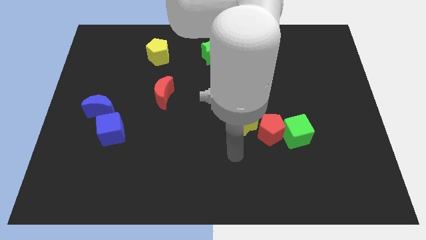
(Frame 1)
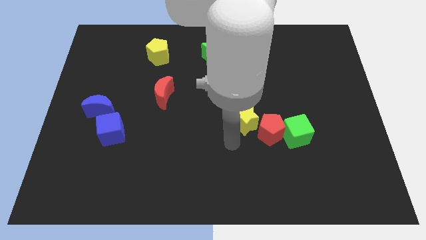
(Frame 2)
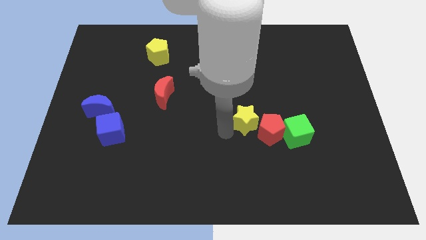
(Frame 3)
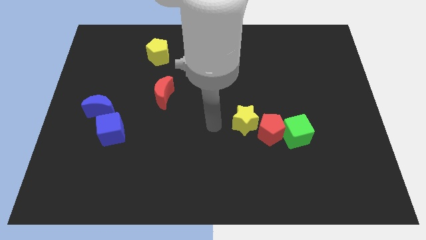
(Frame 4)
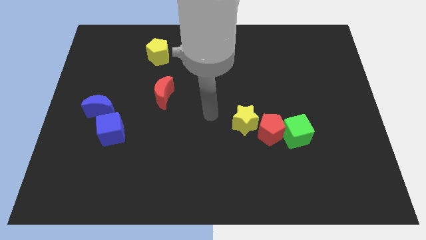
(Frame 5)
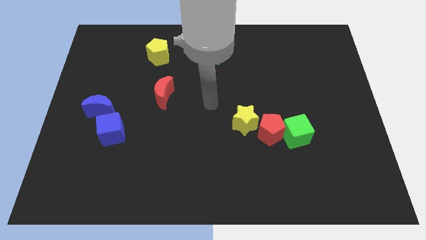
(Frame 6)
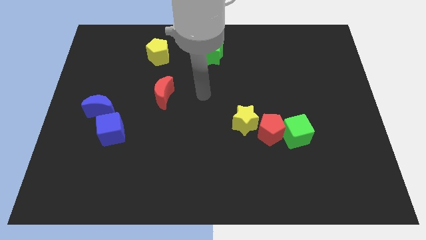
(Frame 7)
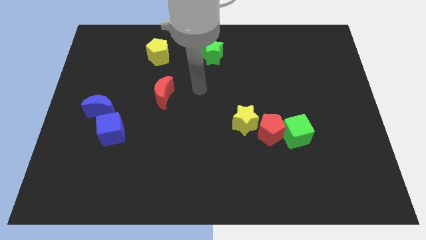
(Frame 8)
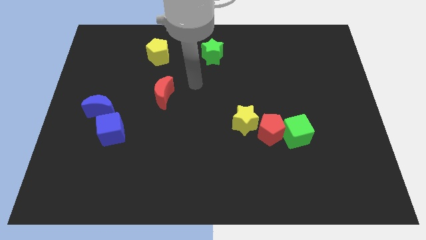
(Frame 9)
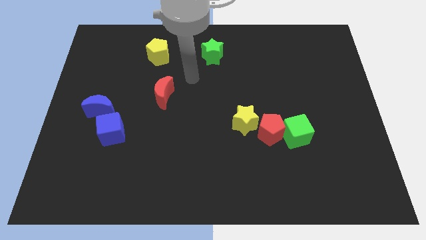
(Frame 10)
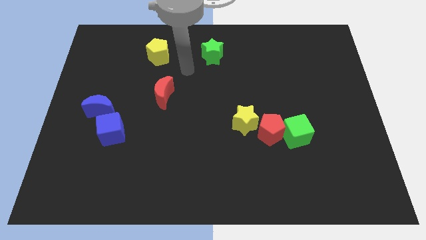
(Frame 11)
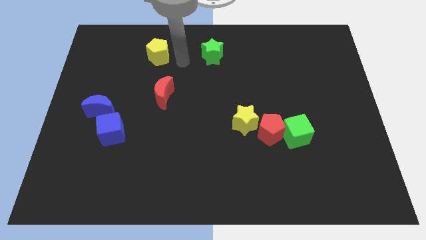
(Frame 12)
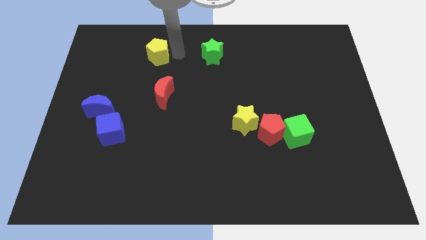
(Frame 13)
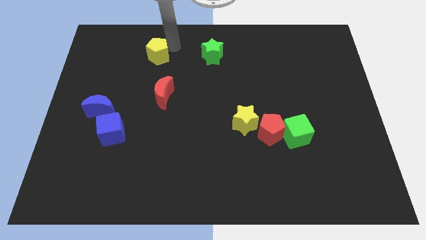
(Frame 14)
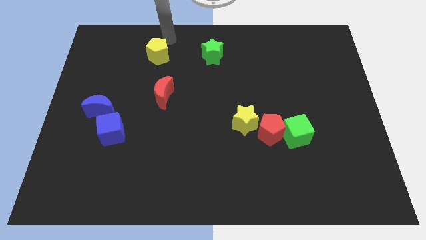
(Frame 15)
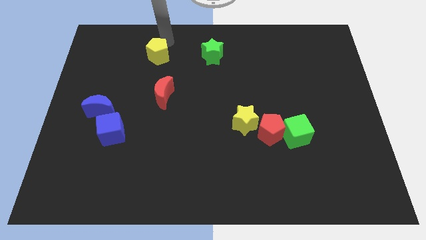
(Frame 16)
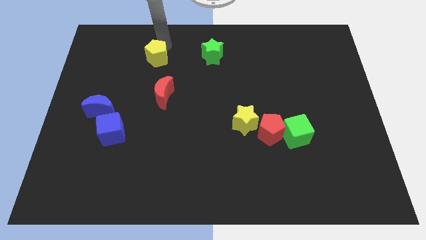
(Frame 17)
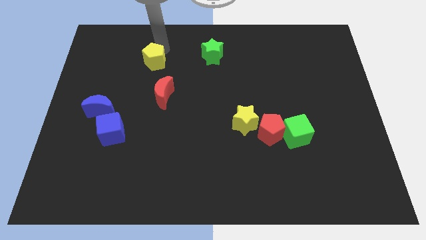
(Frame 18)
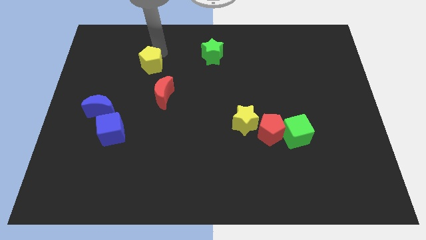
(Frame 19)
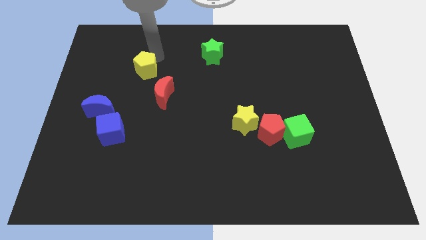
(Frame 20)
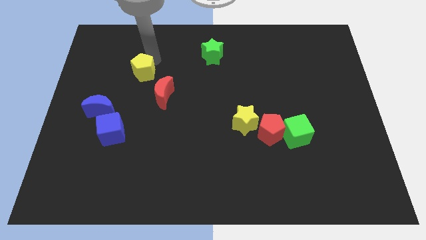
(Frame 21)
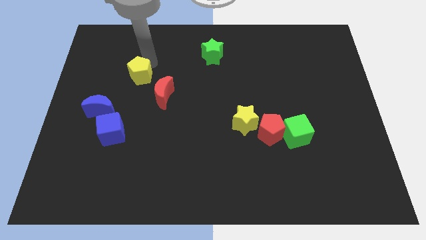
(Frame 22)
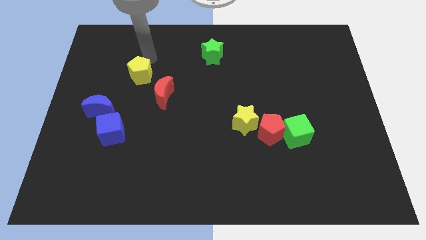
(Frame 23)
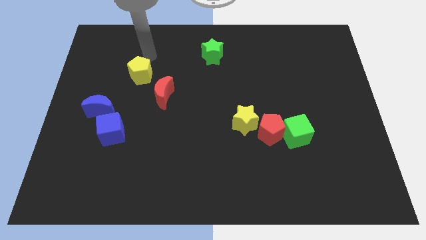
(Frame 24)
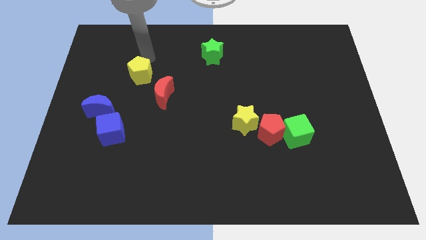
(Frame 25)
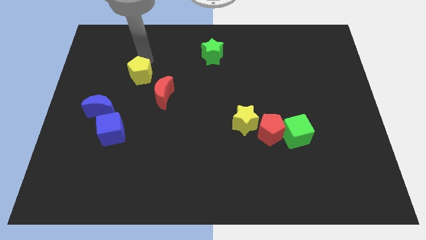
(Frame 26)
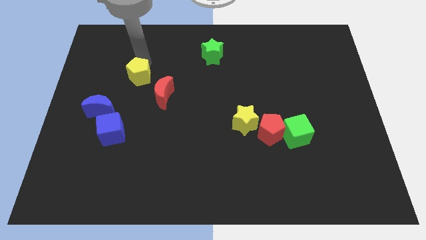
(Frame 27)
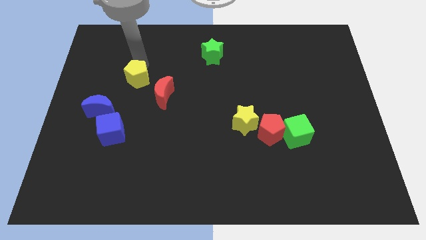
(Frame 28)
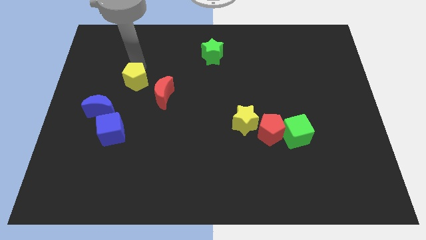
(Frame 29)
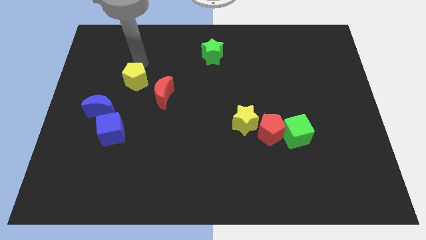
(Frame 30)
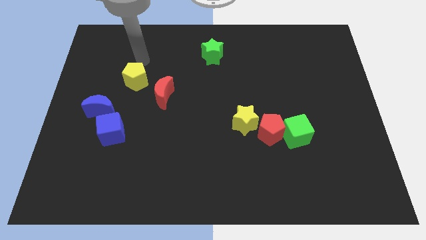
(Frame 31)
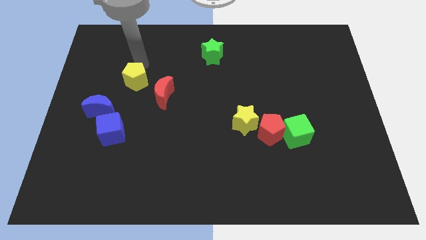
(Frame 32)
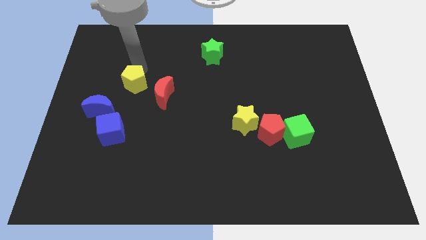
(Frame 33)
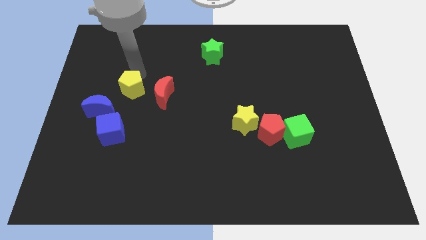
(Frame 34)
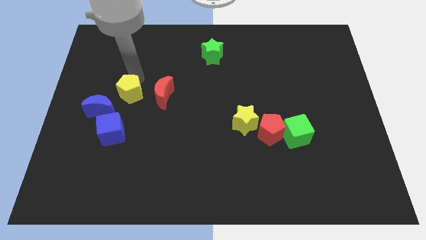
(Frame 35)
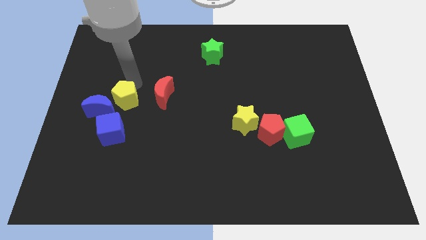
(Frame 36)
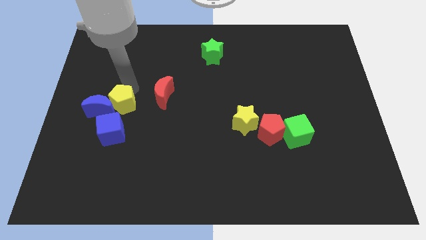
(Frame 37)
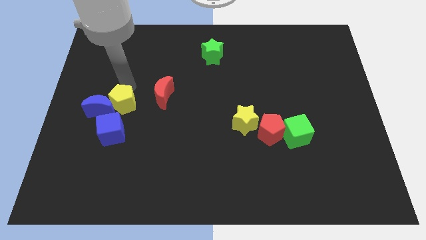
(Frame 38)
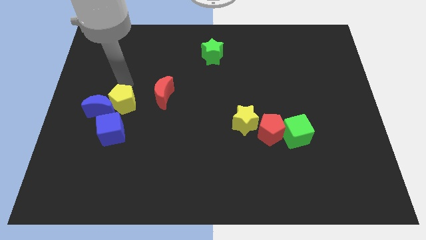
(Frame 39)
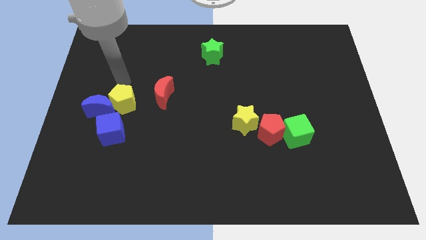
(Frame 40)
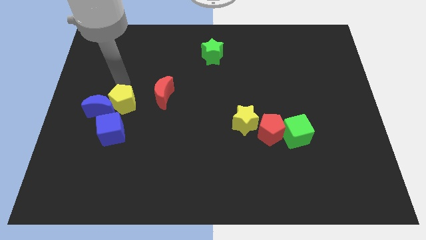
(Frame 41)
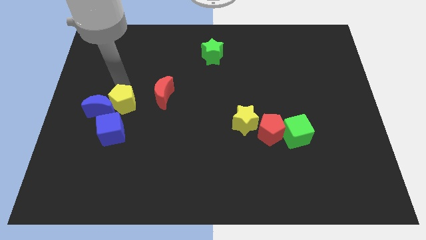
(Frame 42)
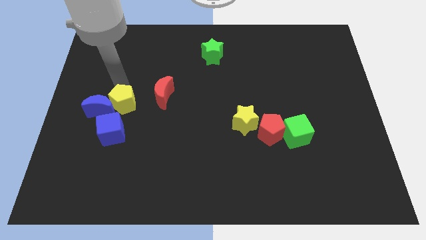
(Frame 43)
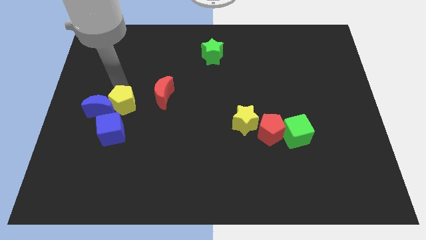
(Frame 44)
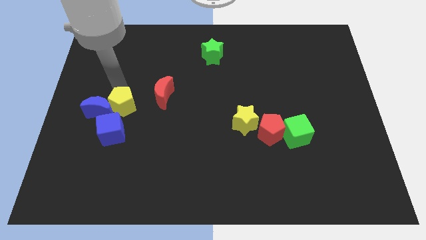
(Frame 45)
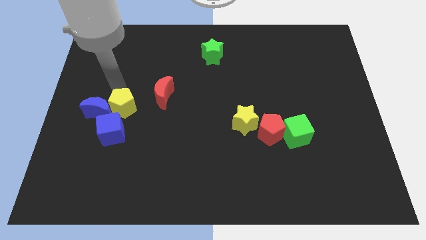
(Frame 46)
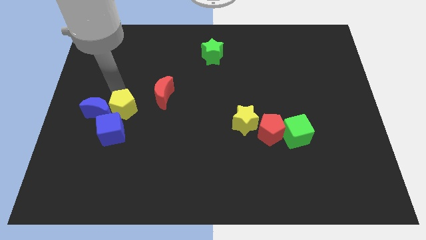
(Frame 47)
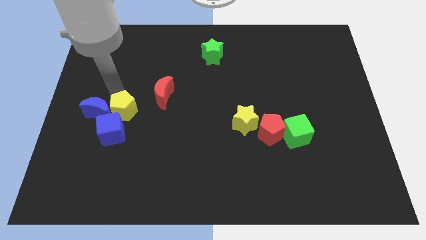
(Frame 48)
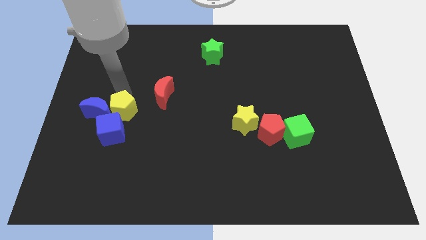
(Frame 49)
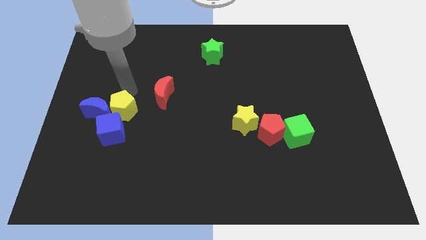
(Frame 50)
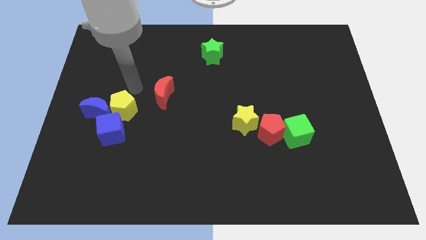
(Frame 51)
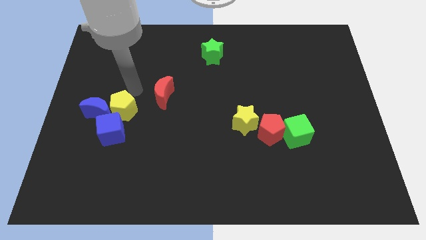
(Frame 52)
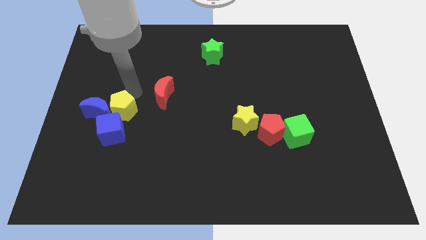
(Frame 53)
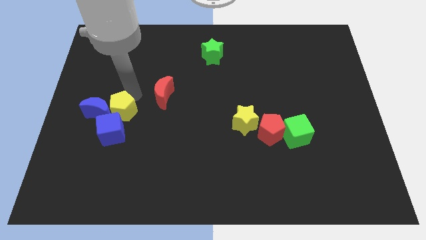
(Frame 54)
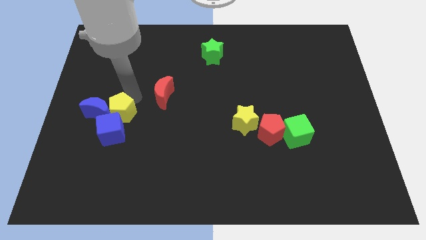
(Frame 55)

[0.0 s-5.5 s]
push the yellow pentagon close to the blue cube
